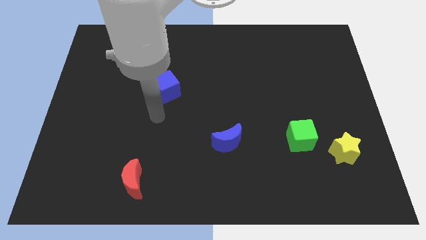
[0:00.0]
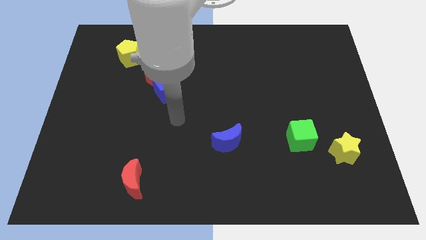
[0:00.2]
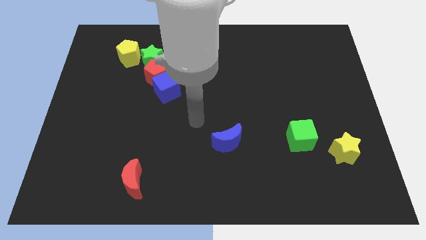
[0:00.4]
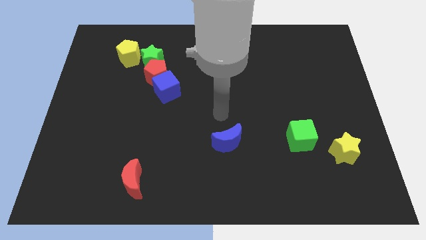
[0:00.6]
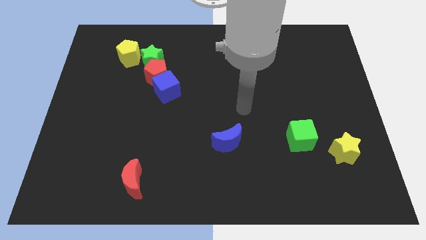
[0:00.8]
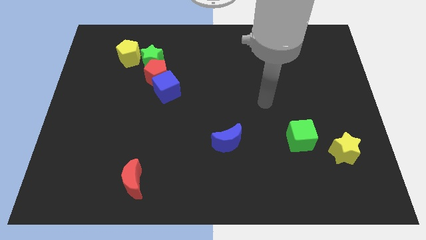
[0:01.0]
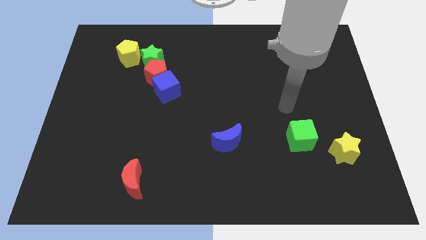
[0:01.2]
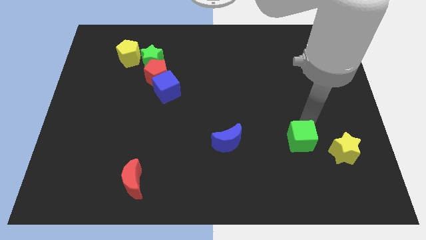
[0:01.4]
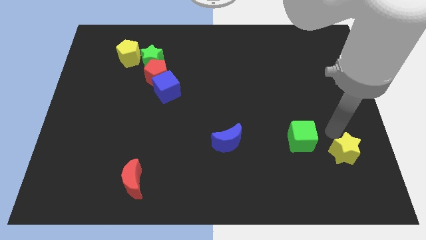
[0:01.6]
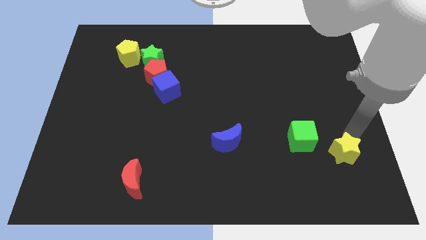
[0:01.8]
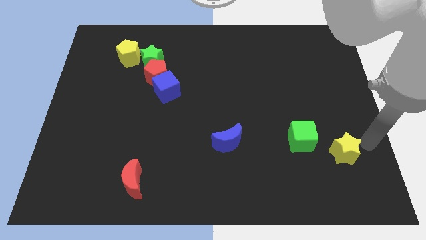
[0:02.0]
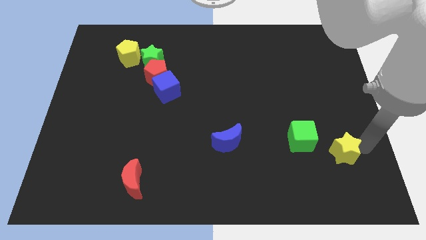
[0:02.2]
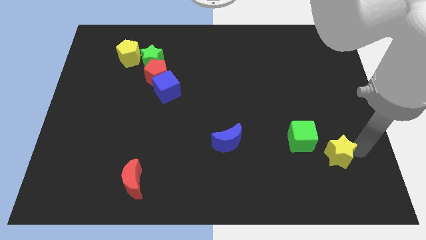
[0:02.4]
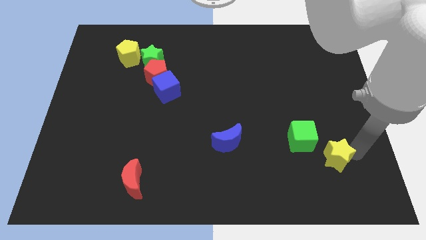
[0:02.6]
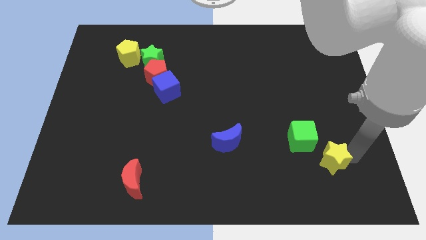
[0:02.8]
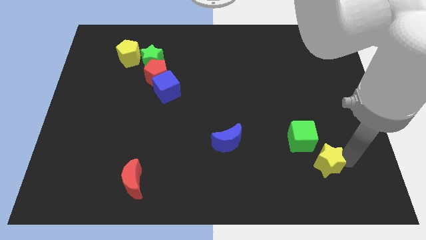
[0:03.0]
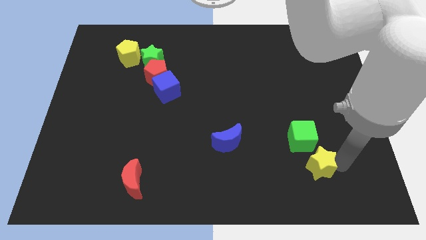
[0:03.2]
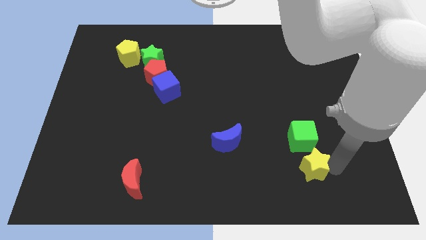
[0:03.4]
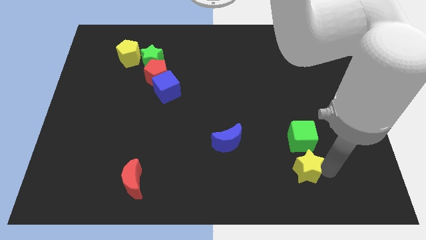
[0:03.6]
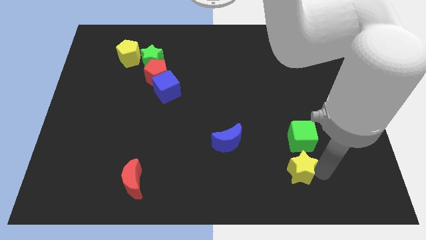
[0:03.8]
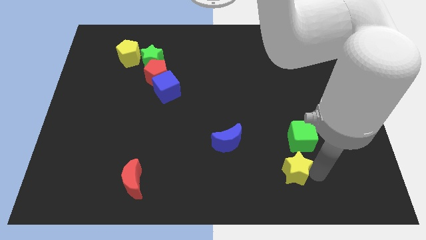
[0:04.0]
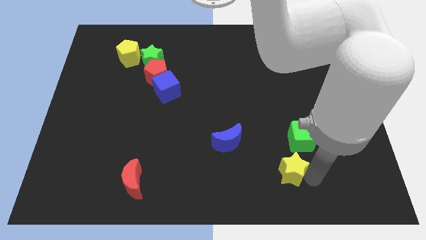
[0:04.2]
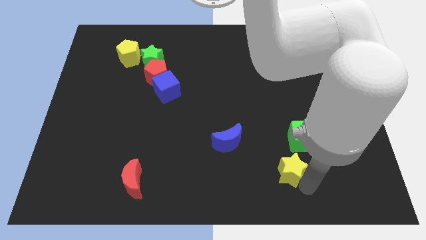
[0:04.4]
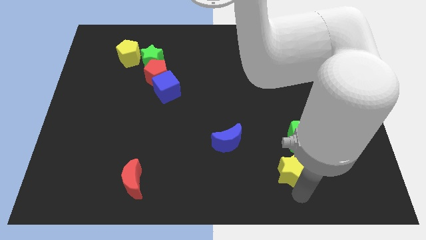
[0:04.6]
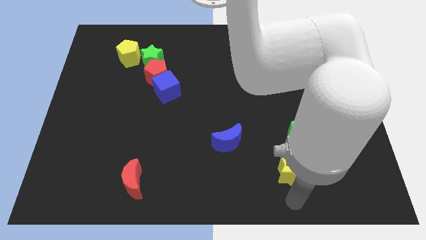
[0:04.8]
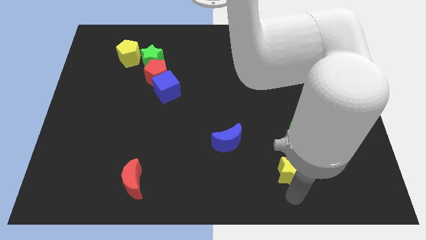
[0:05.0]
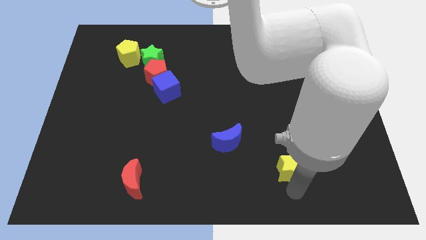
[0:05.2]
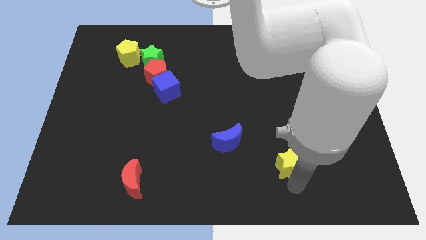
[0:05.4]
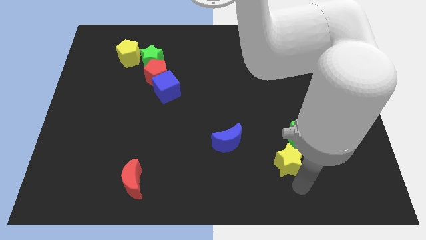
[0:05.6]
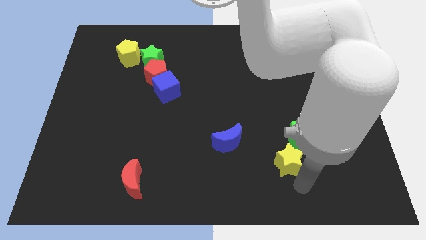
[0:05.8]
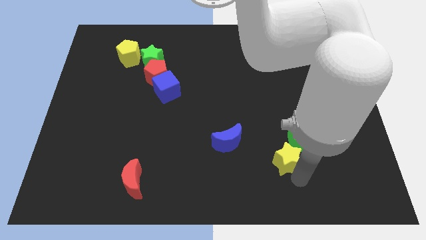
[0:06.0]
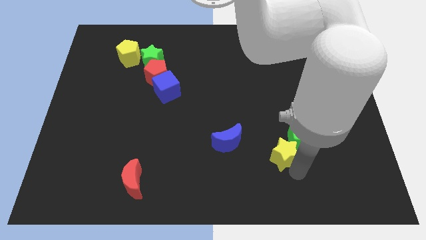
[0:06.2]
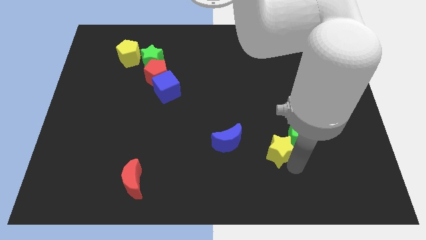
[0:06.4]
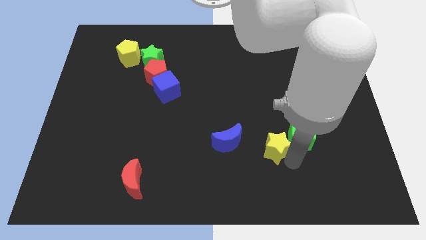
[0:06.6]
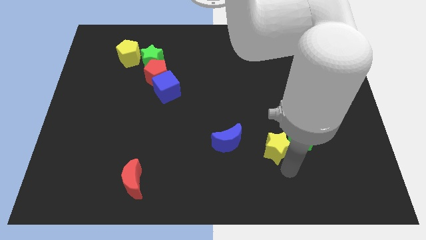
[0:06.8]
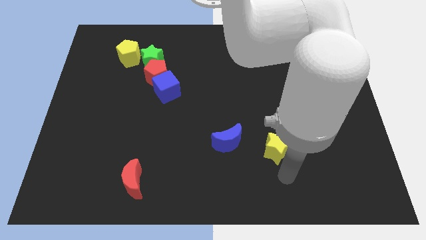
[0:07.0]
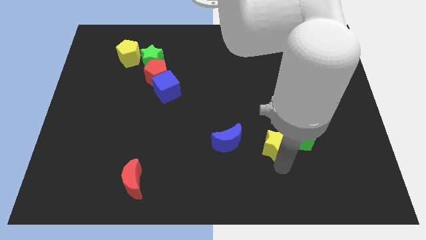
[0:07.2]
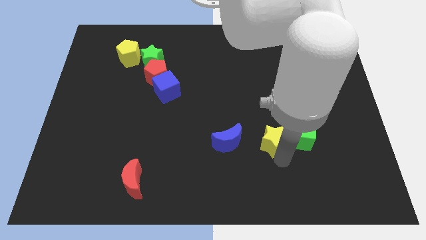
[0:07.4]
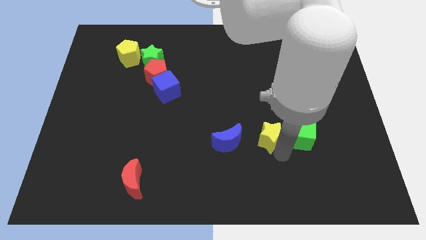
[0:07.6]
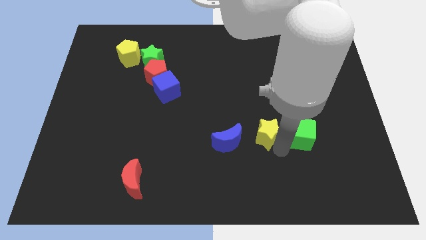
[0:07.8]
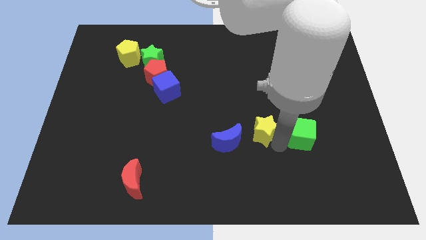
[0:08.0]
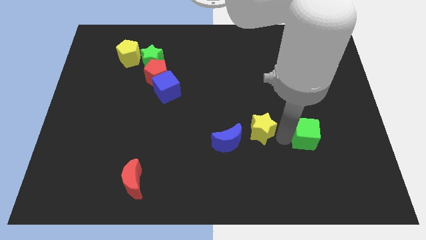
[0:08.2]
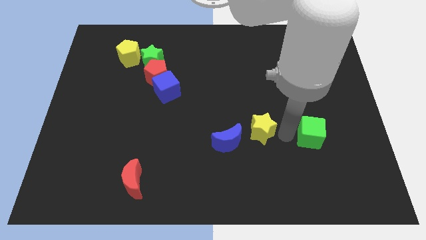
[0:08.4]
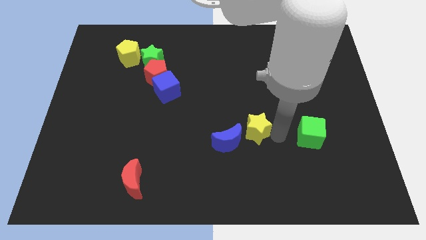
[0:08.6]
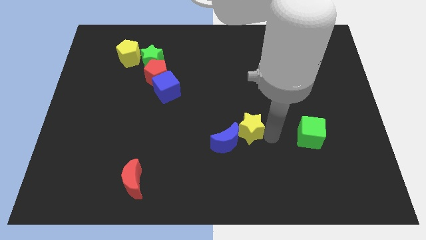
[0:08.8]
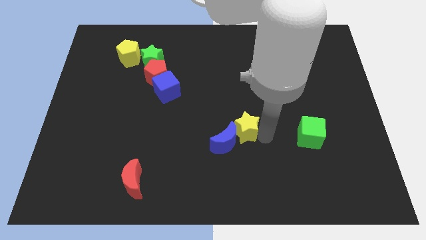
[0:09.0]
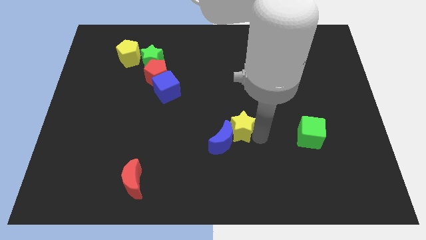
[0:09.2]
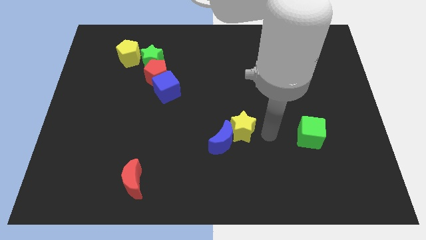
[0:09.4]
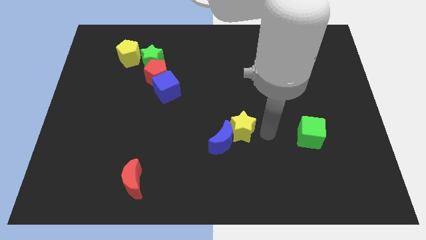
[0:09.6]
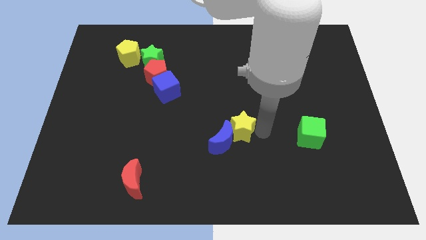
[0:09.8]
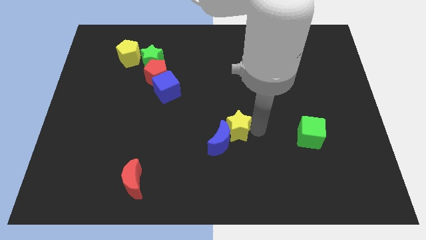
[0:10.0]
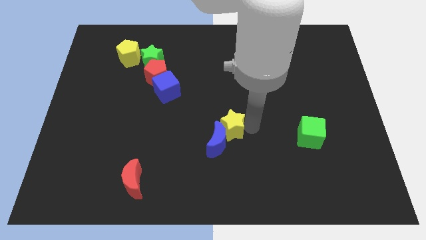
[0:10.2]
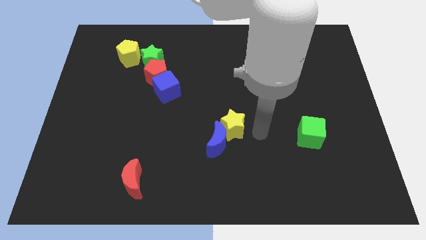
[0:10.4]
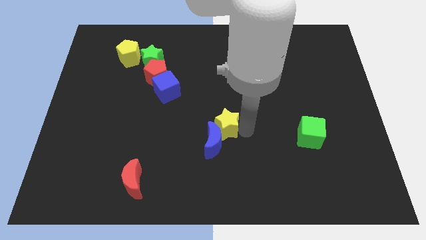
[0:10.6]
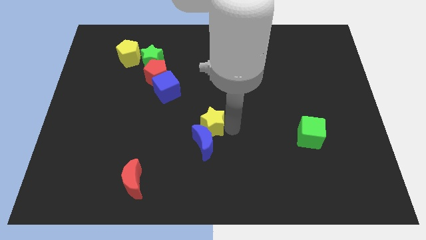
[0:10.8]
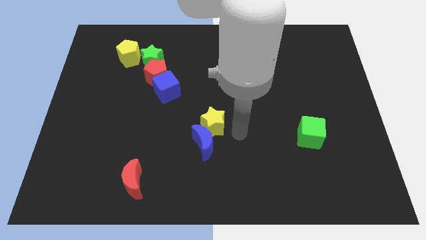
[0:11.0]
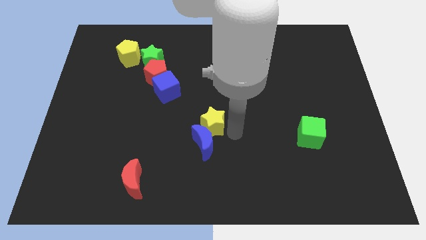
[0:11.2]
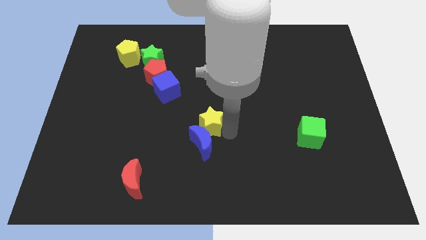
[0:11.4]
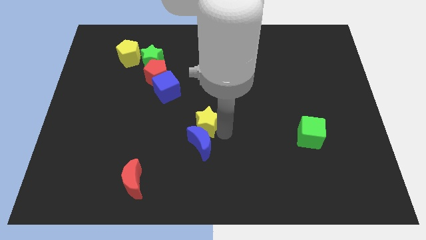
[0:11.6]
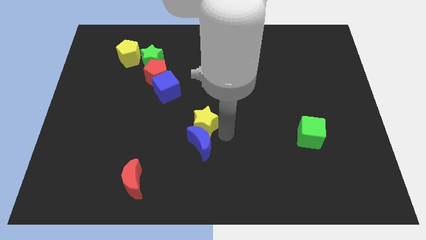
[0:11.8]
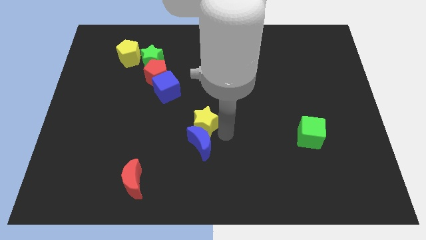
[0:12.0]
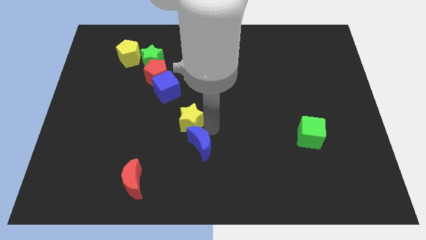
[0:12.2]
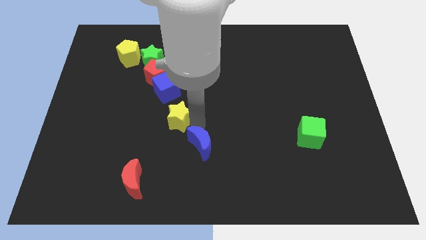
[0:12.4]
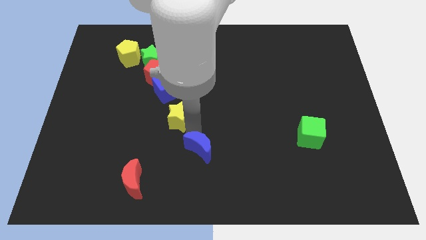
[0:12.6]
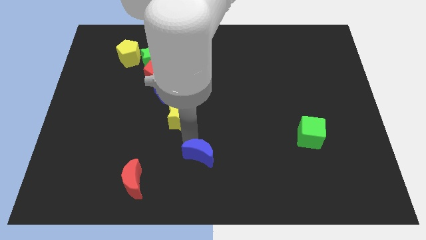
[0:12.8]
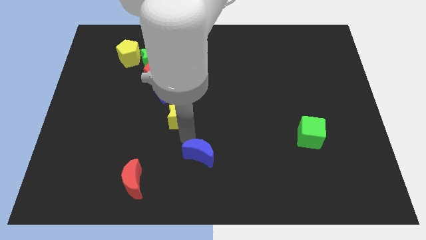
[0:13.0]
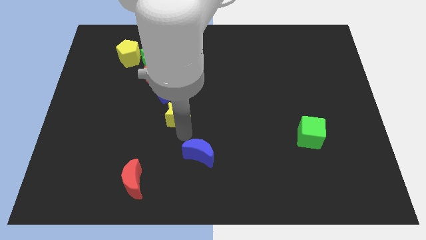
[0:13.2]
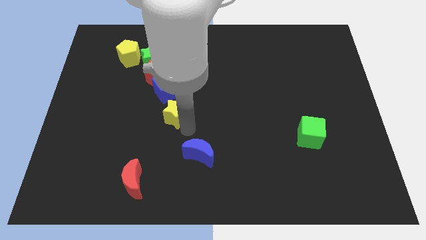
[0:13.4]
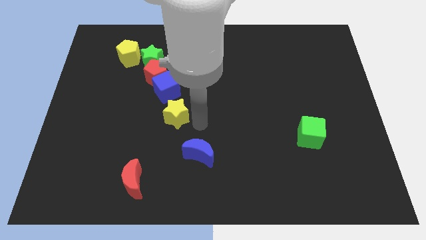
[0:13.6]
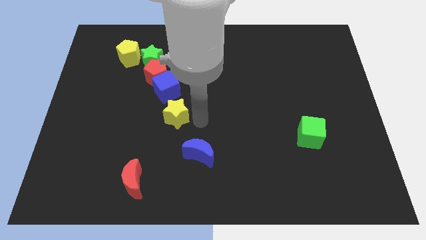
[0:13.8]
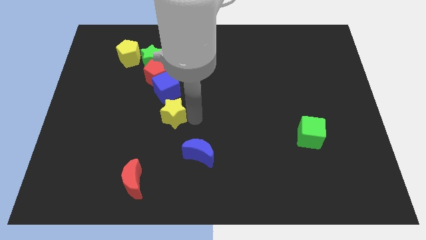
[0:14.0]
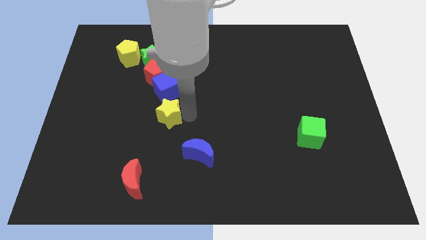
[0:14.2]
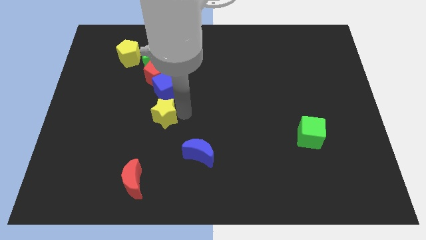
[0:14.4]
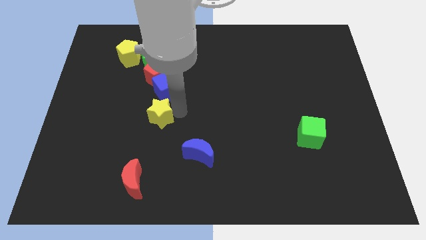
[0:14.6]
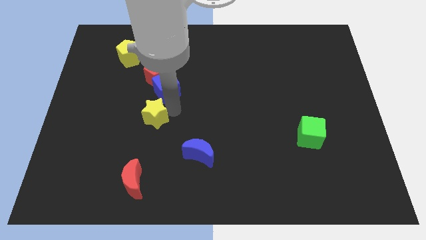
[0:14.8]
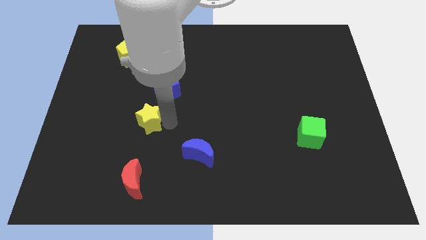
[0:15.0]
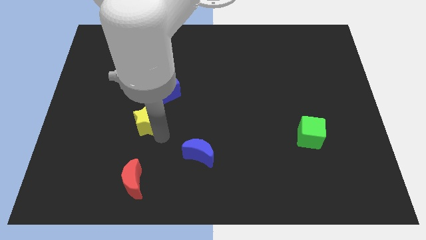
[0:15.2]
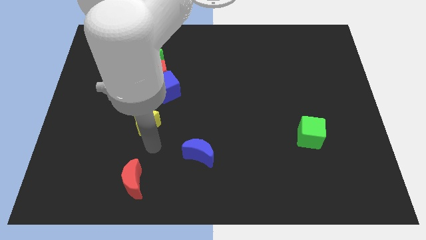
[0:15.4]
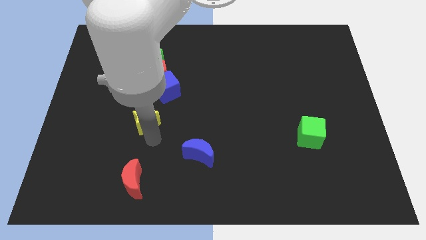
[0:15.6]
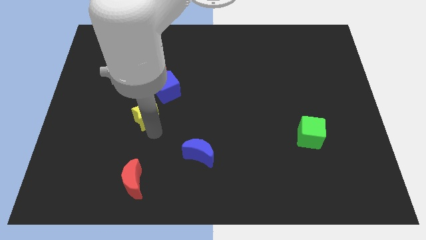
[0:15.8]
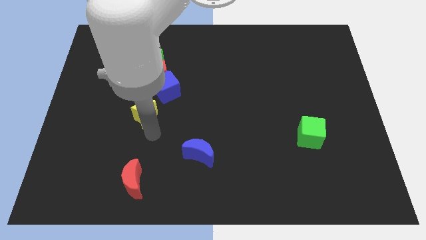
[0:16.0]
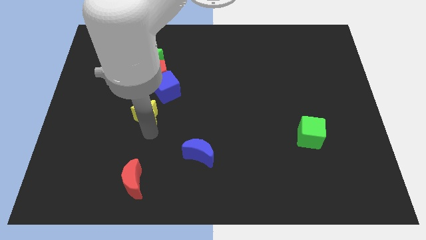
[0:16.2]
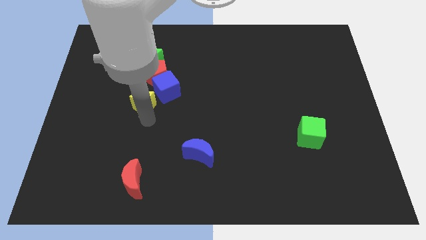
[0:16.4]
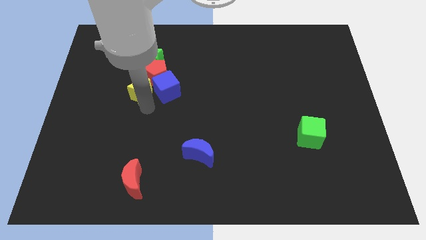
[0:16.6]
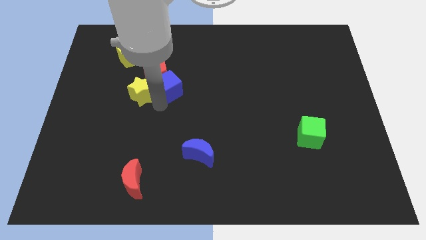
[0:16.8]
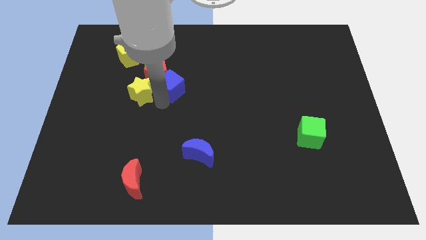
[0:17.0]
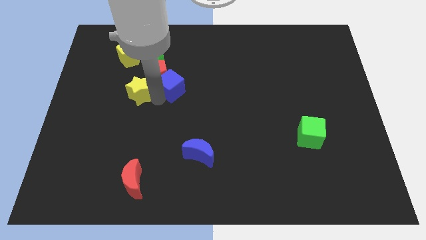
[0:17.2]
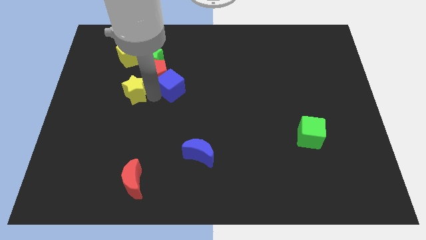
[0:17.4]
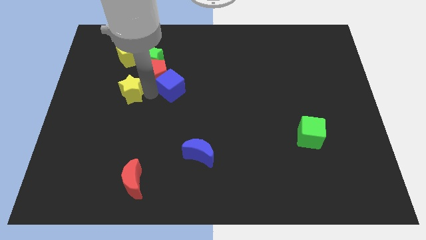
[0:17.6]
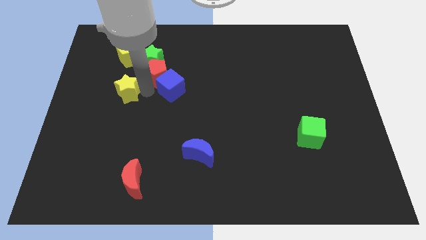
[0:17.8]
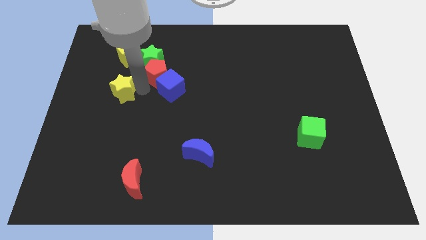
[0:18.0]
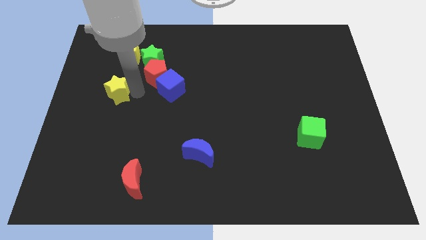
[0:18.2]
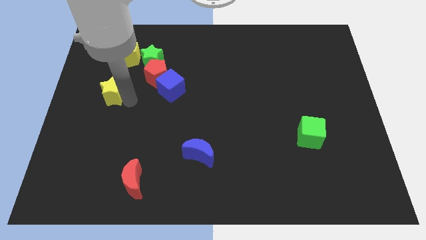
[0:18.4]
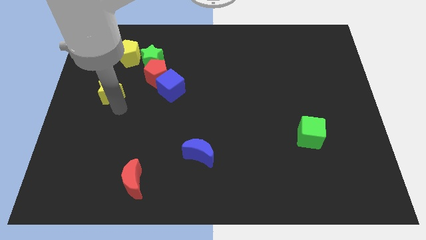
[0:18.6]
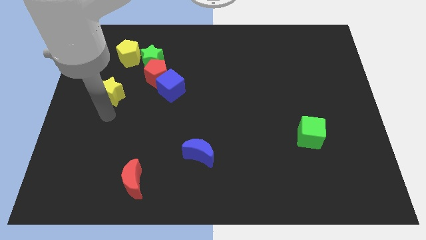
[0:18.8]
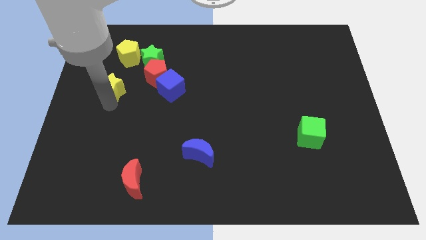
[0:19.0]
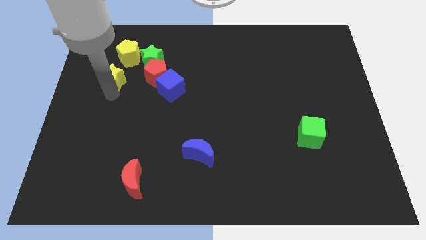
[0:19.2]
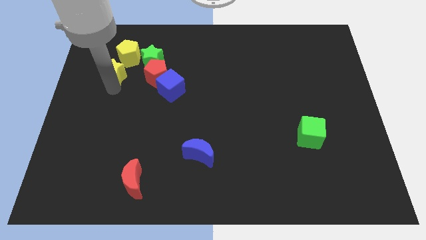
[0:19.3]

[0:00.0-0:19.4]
push the yellow star to the left of the green star
